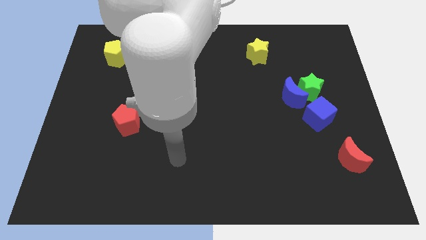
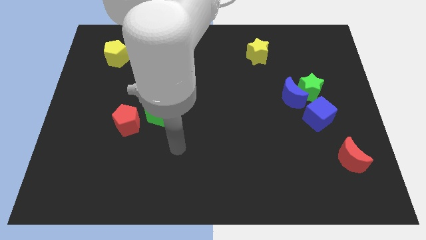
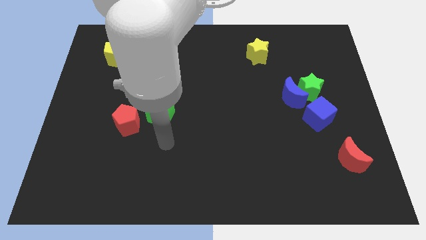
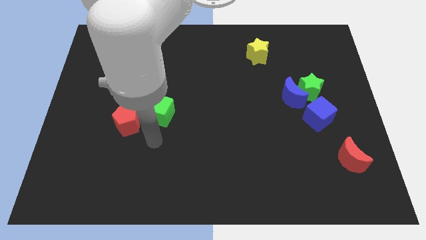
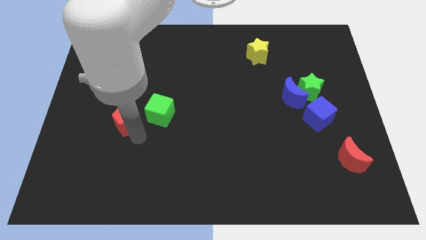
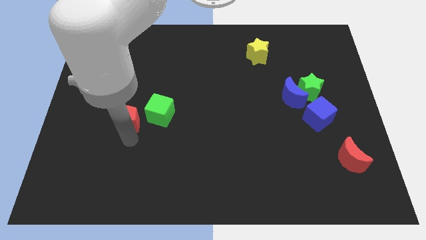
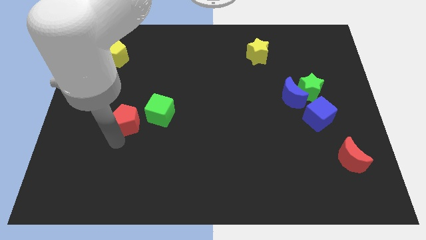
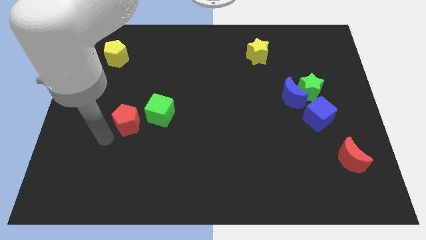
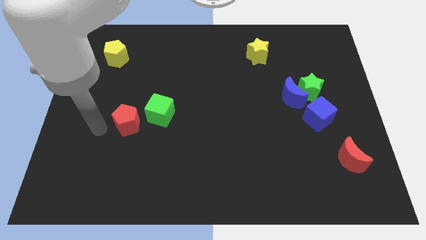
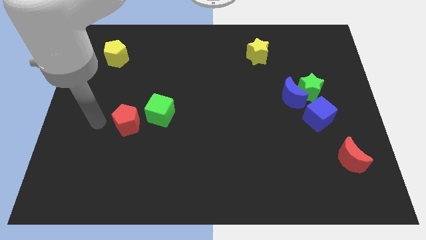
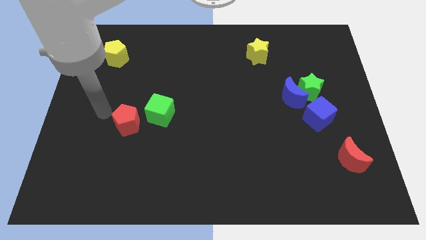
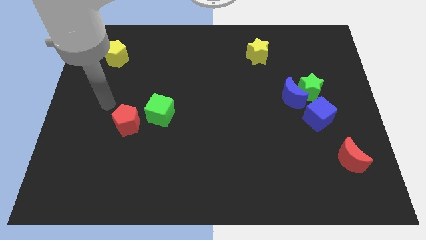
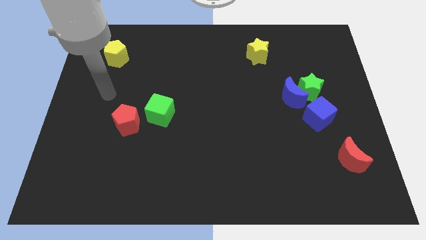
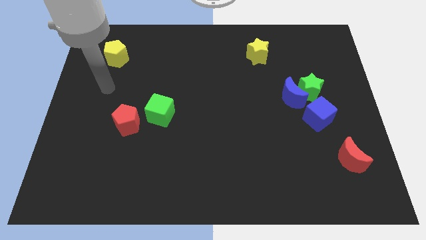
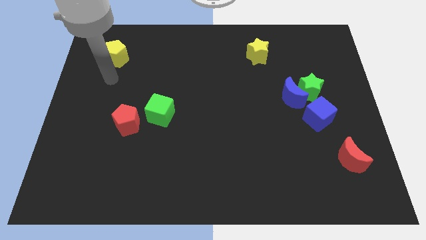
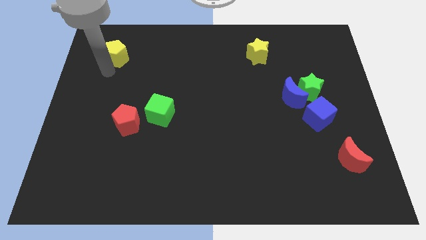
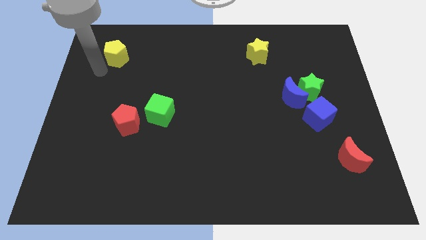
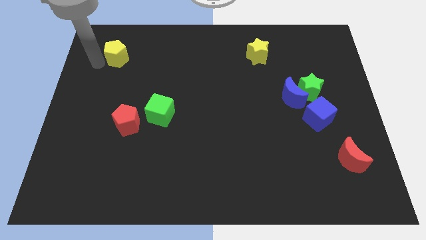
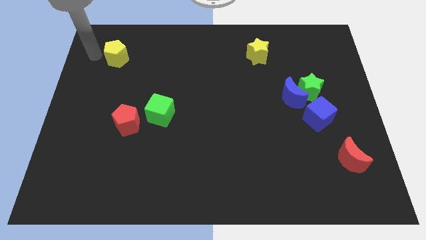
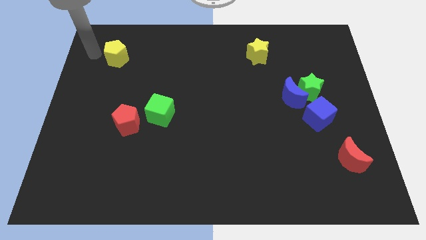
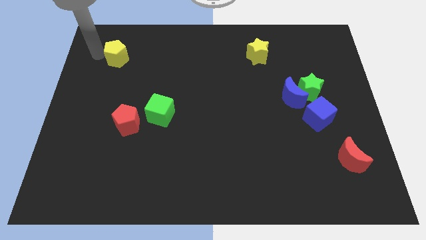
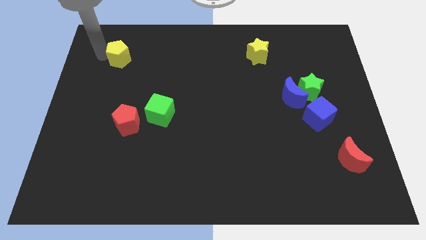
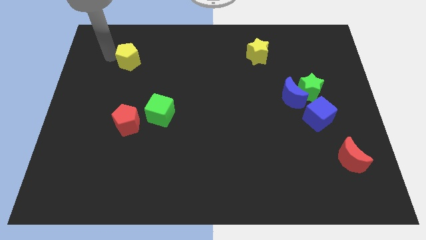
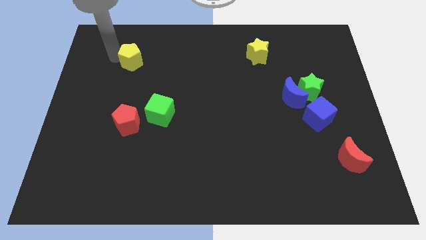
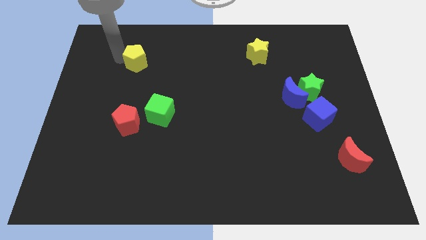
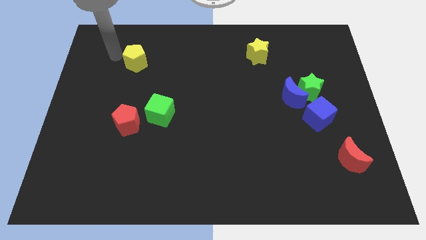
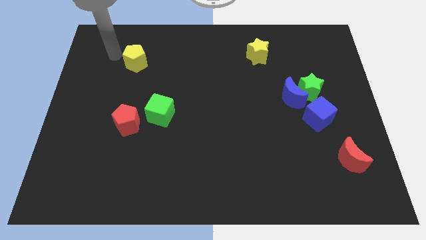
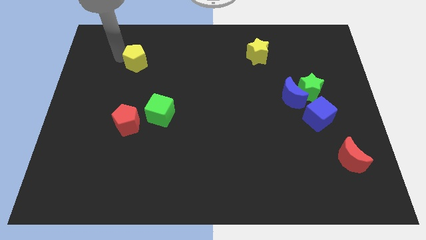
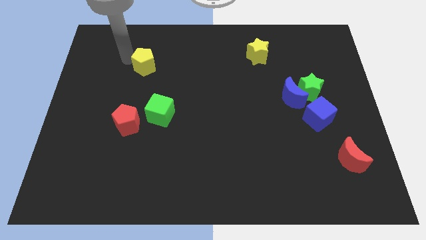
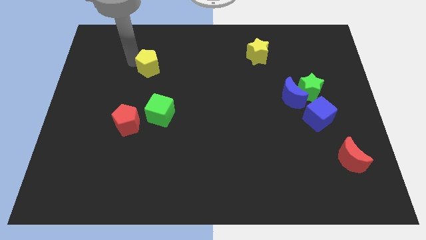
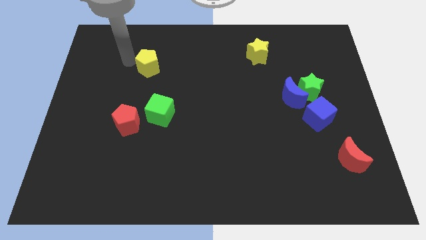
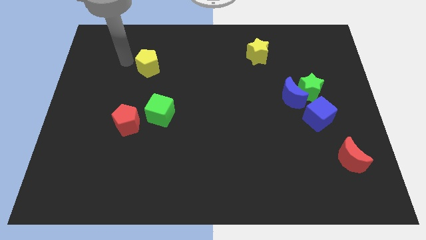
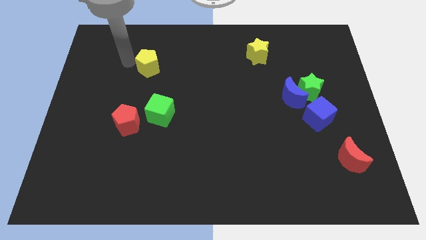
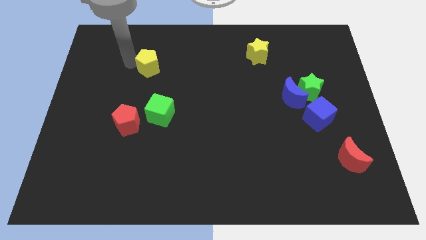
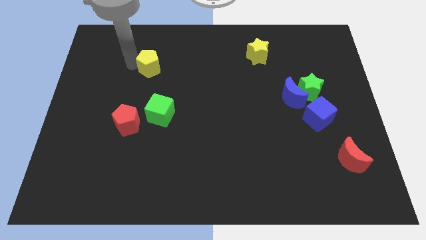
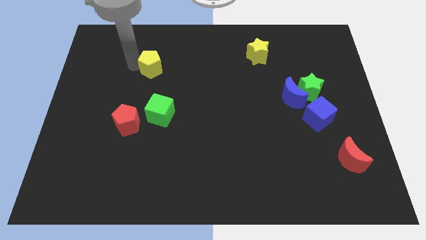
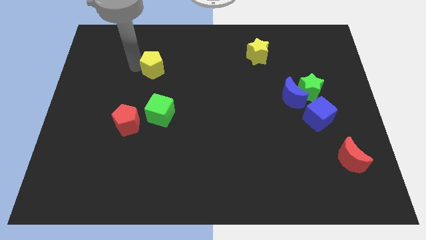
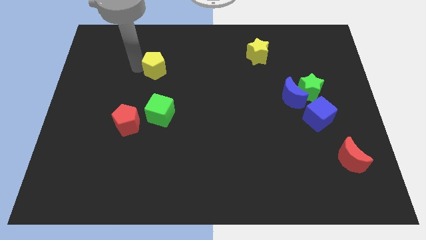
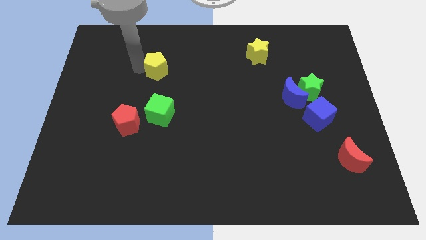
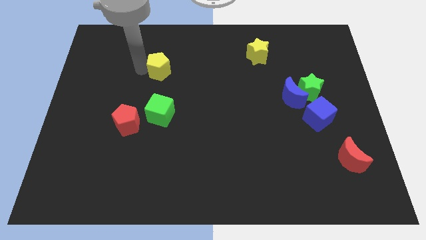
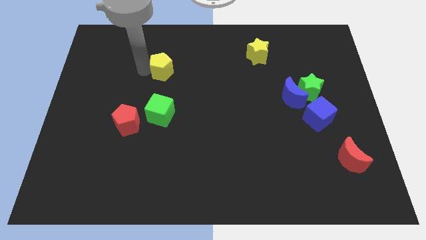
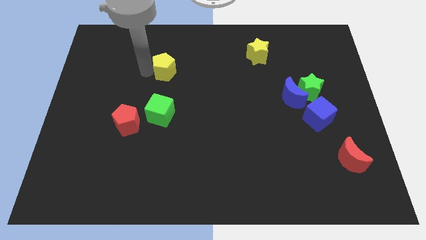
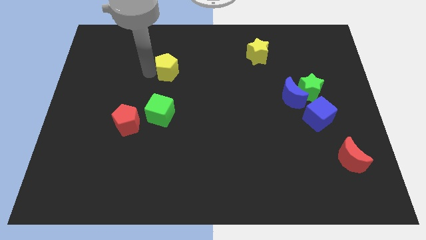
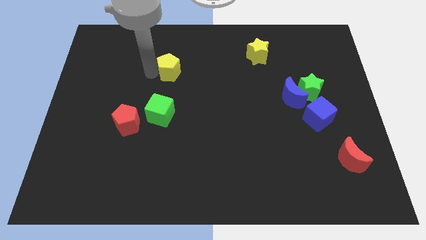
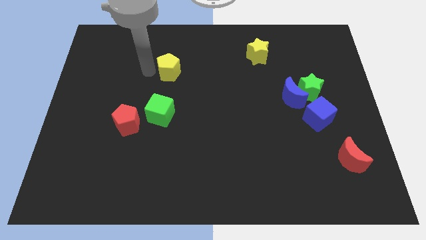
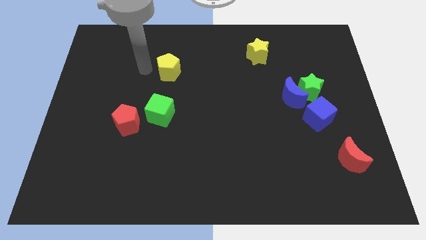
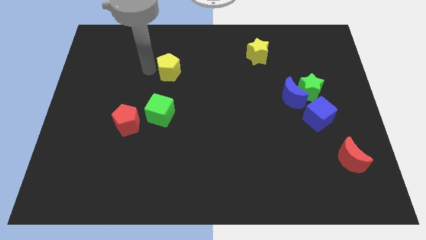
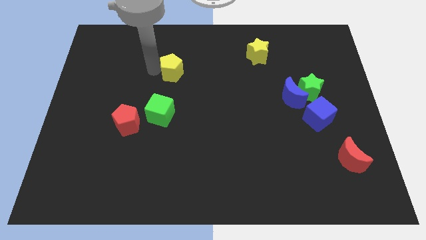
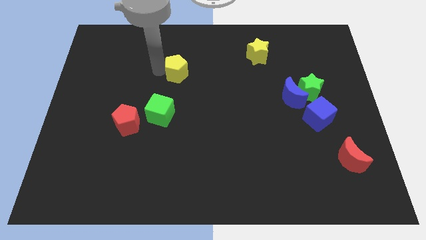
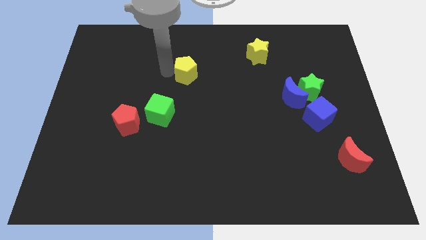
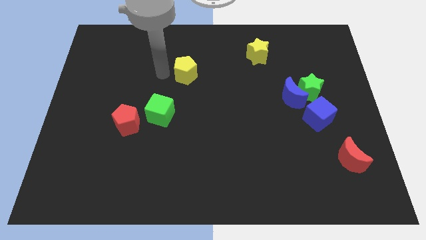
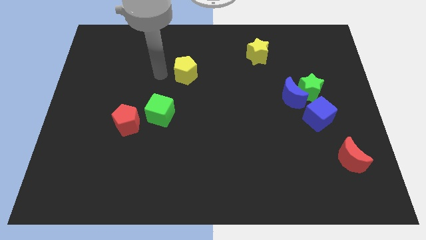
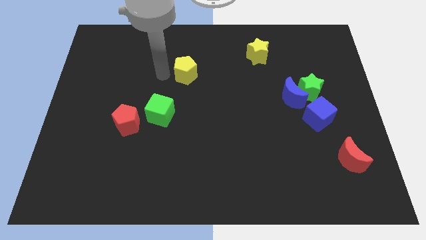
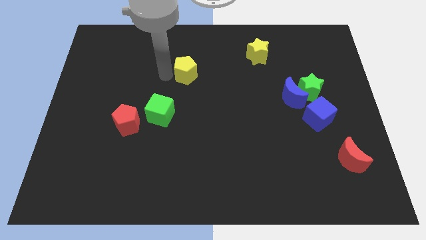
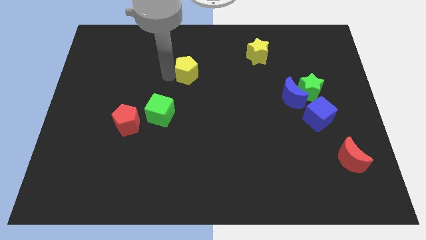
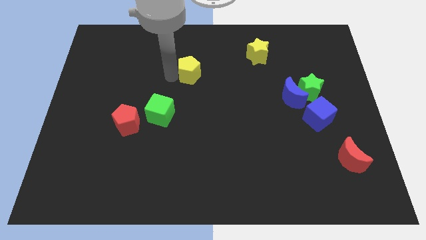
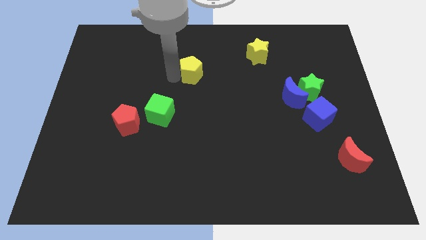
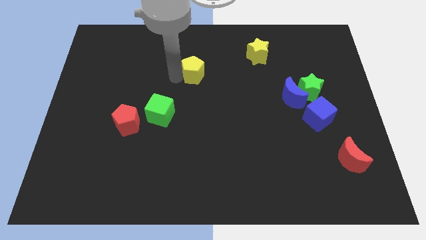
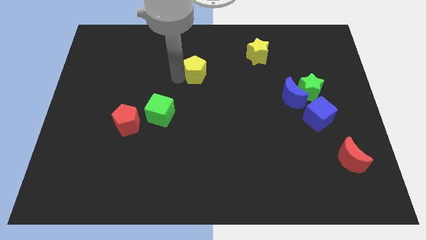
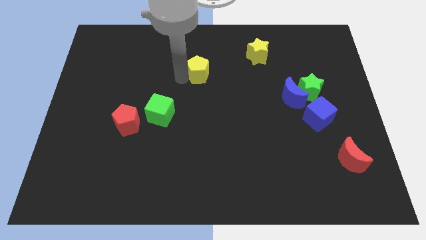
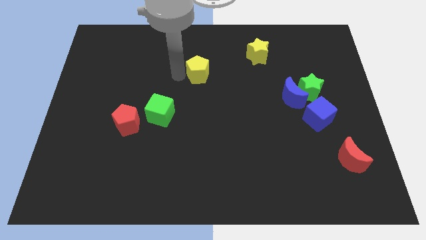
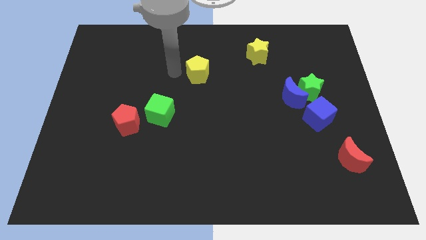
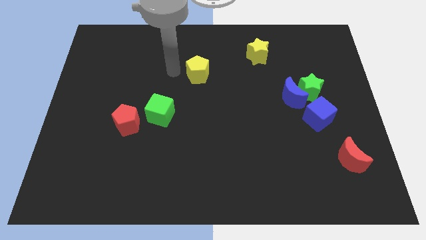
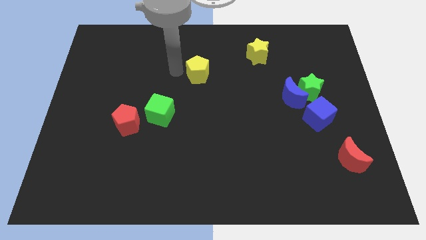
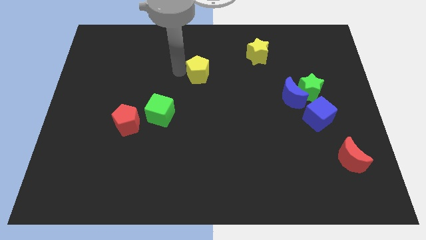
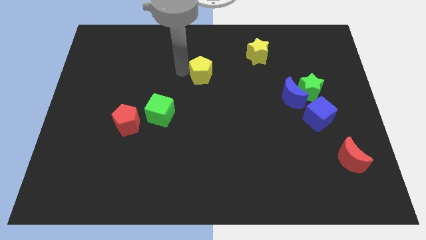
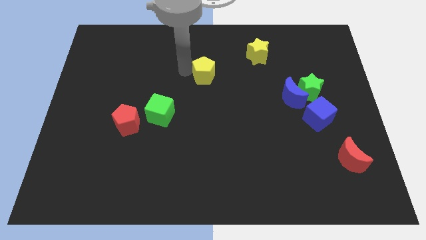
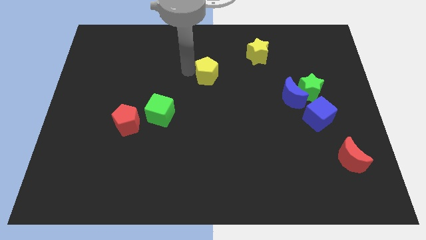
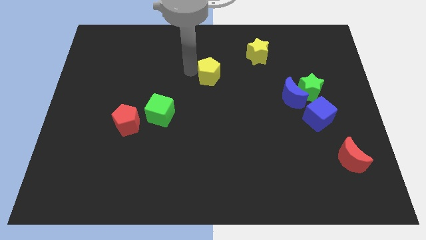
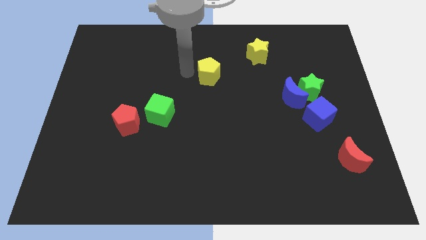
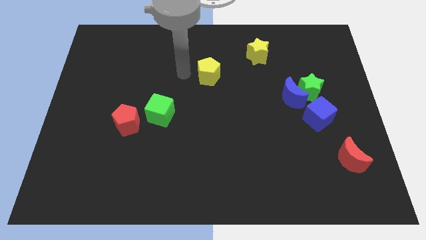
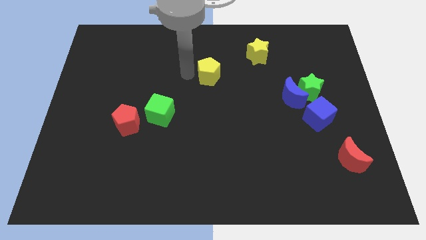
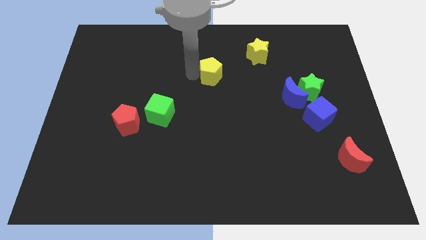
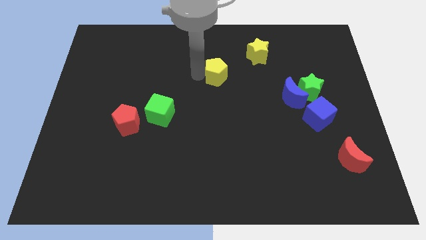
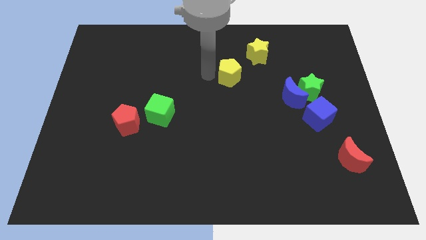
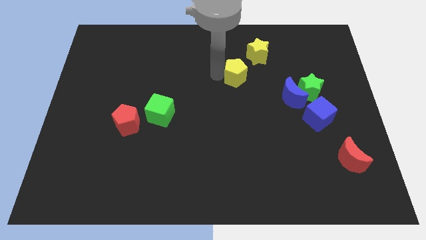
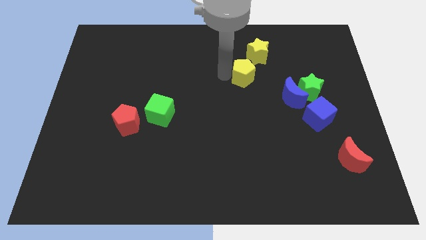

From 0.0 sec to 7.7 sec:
push the yellow pentagon to the bottom of the yellow star
